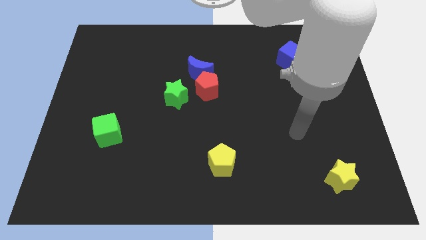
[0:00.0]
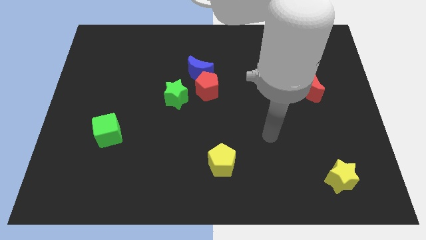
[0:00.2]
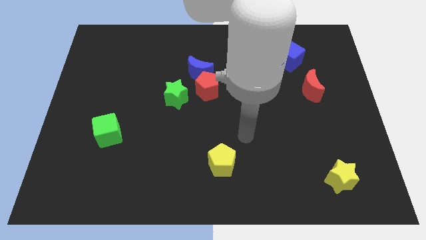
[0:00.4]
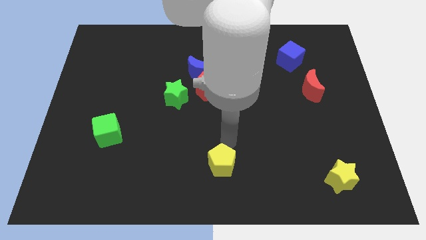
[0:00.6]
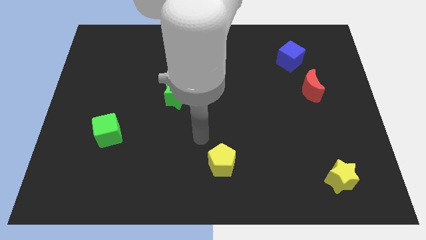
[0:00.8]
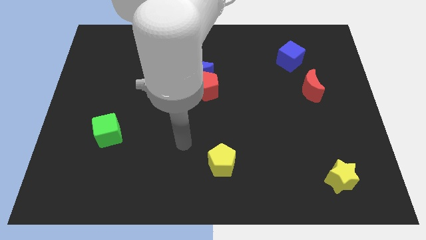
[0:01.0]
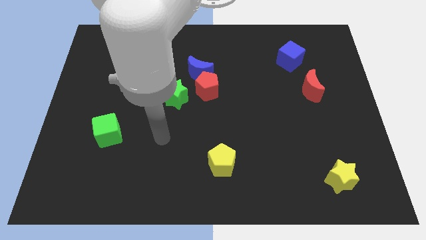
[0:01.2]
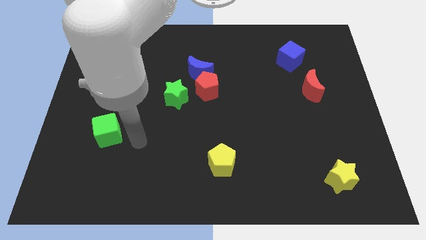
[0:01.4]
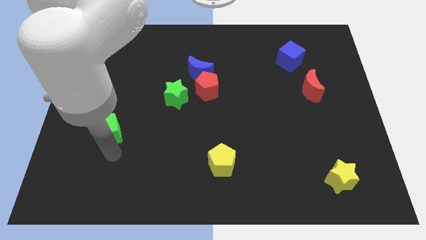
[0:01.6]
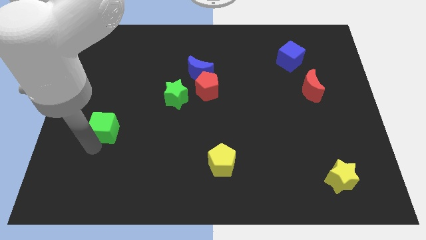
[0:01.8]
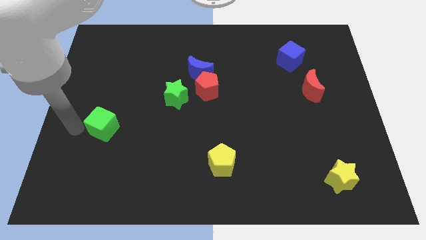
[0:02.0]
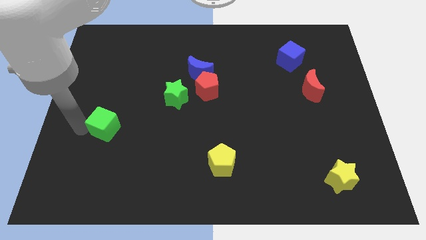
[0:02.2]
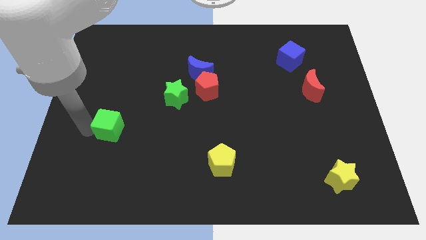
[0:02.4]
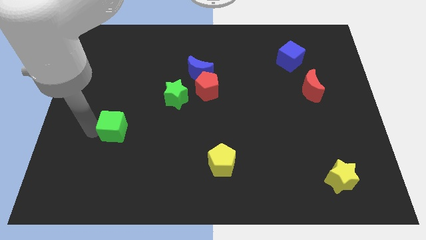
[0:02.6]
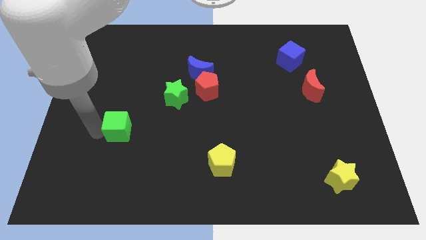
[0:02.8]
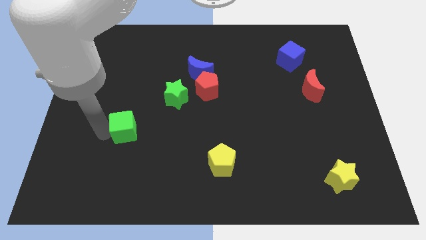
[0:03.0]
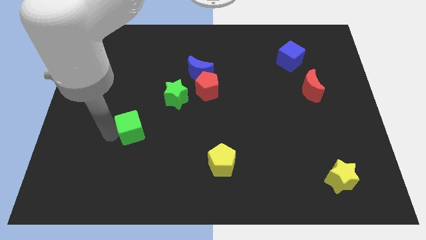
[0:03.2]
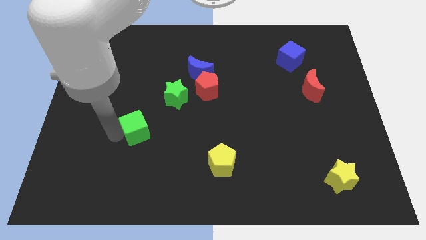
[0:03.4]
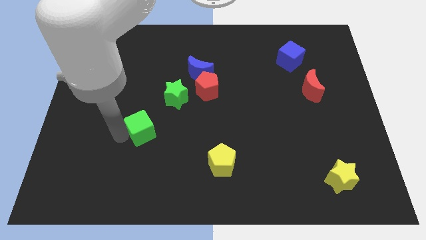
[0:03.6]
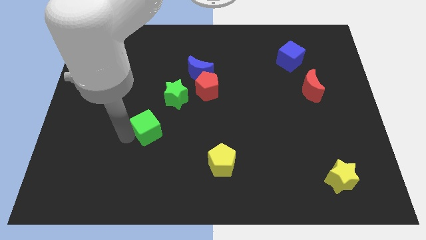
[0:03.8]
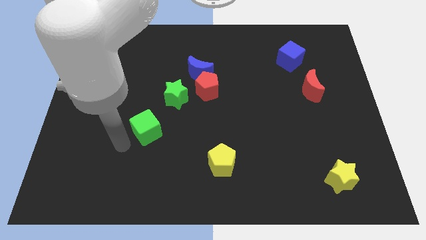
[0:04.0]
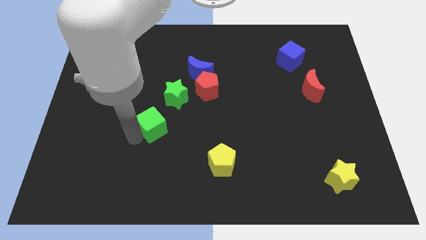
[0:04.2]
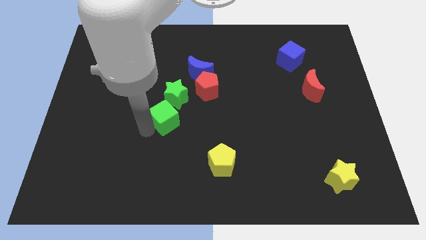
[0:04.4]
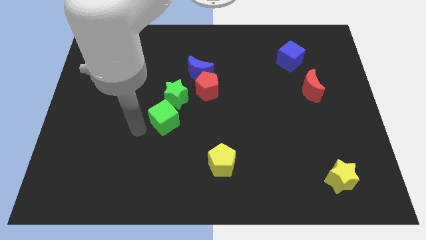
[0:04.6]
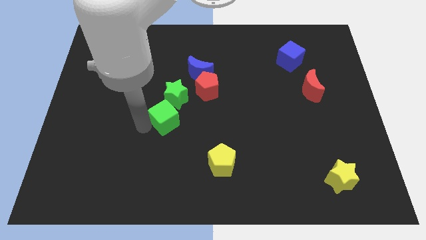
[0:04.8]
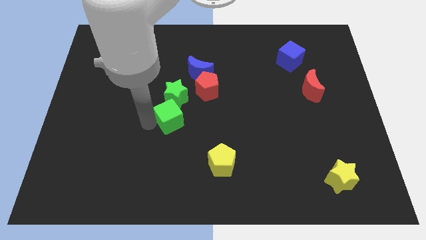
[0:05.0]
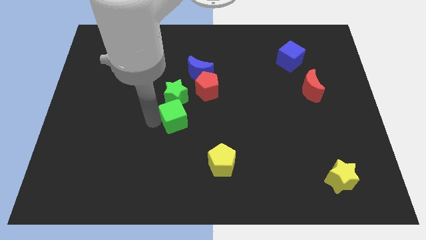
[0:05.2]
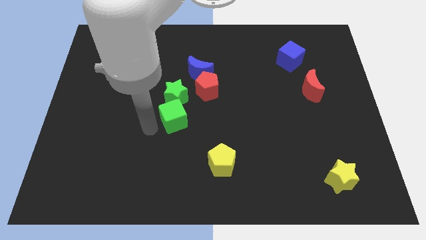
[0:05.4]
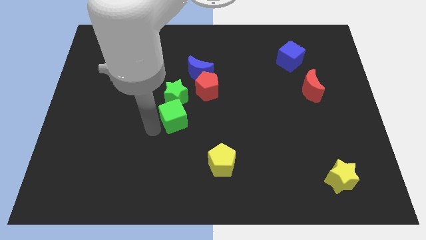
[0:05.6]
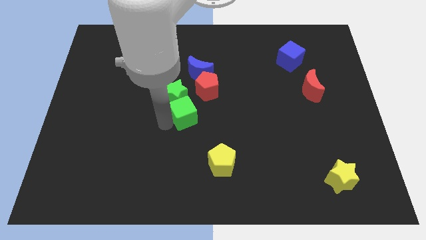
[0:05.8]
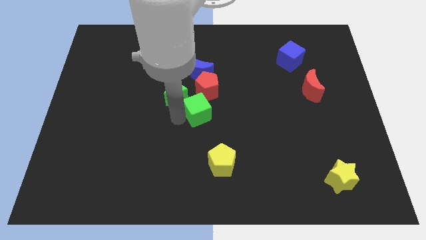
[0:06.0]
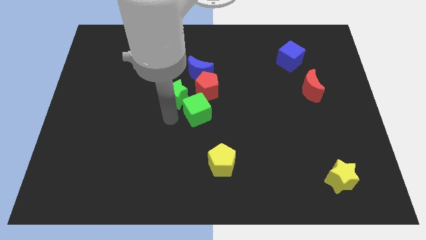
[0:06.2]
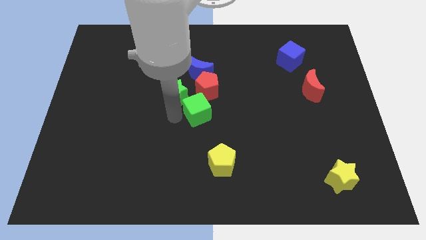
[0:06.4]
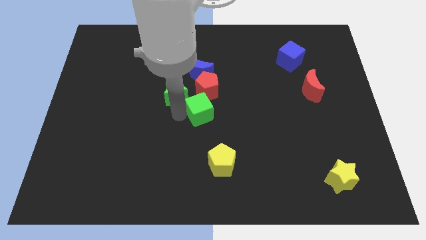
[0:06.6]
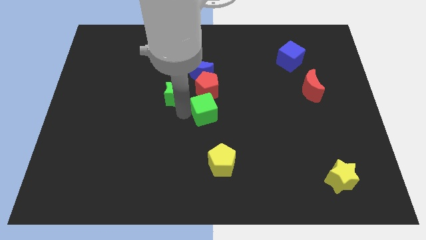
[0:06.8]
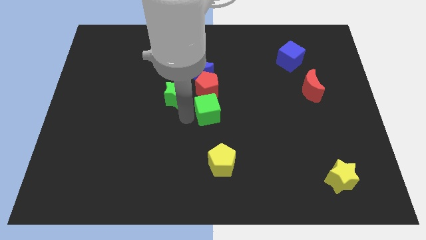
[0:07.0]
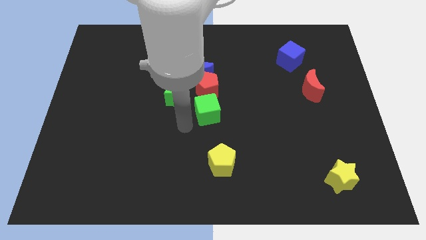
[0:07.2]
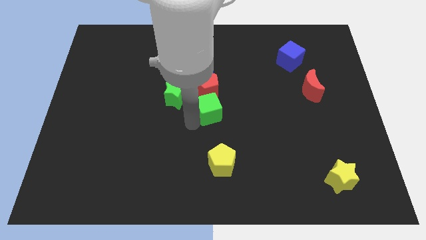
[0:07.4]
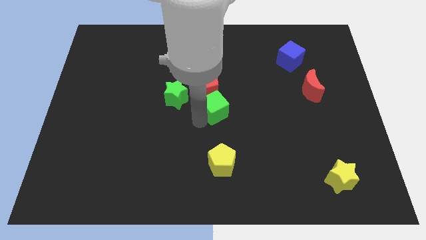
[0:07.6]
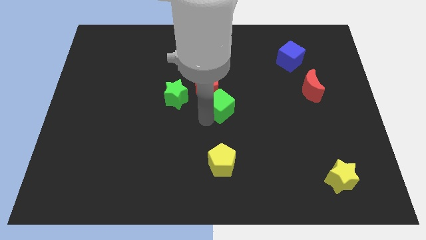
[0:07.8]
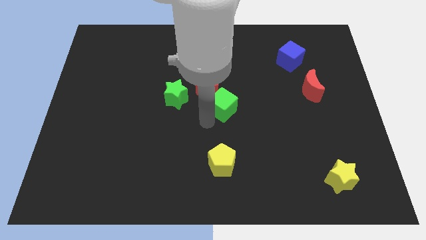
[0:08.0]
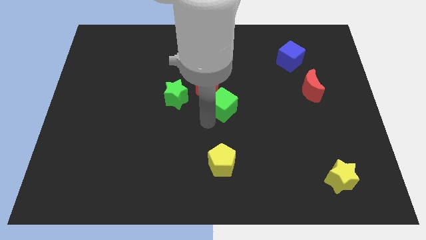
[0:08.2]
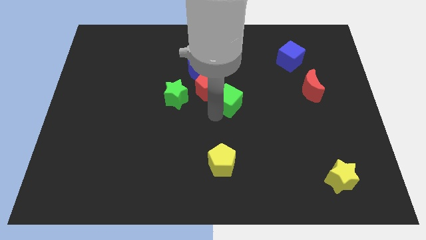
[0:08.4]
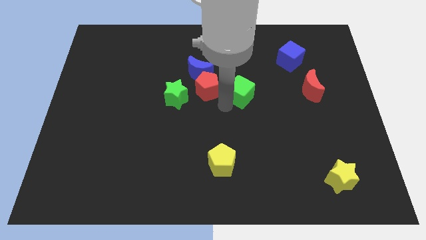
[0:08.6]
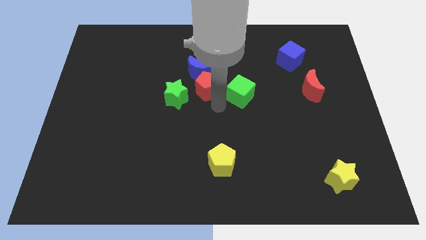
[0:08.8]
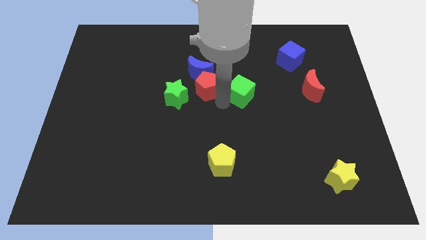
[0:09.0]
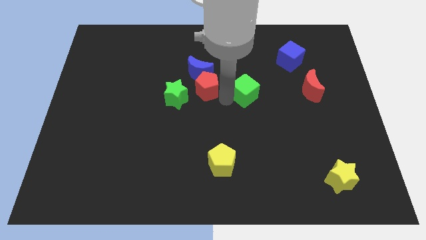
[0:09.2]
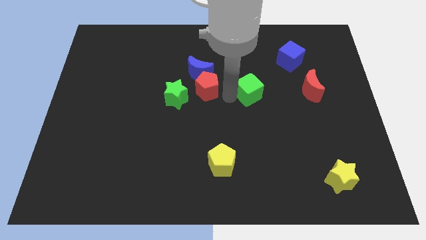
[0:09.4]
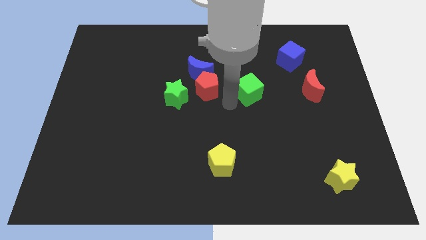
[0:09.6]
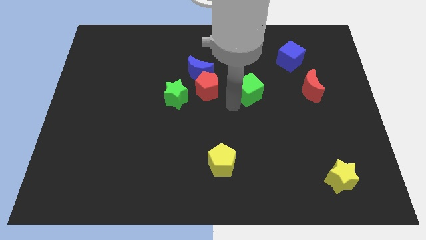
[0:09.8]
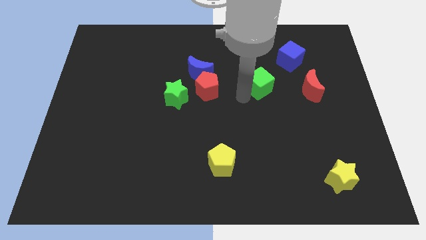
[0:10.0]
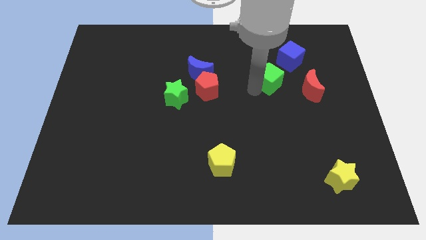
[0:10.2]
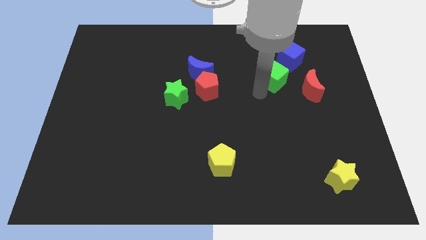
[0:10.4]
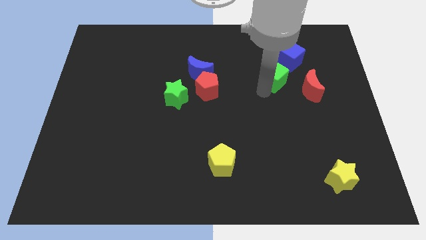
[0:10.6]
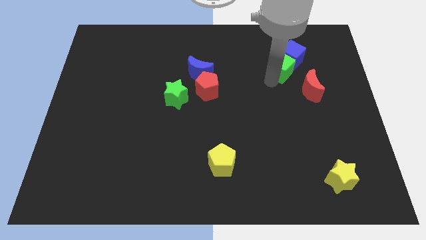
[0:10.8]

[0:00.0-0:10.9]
put the green cube towards the blue cube

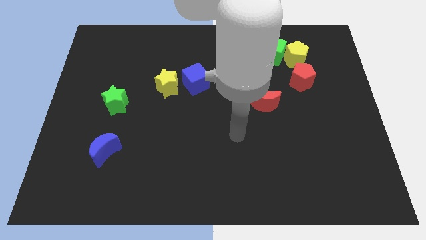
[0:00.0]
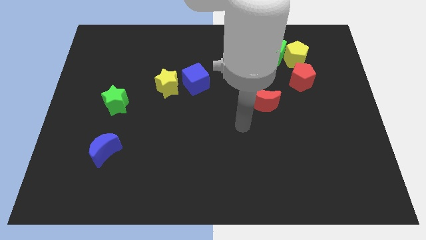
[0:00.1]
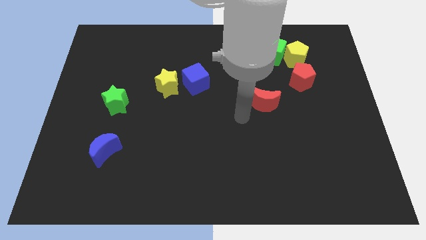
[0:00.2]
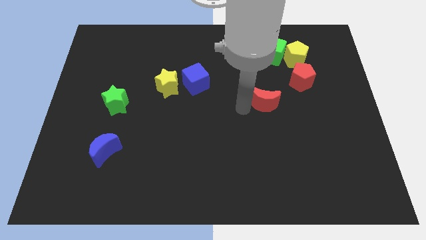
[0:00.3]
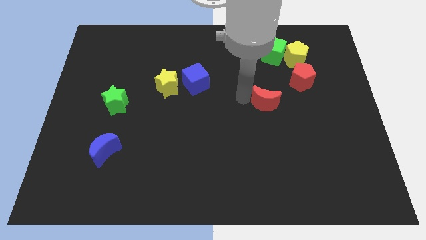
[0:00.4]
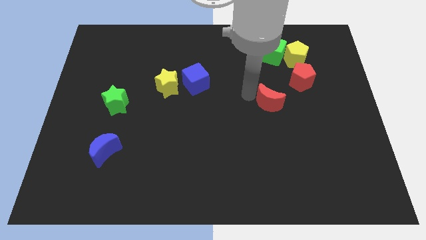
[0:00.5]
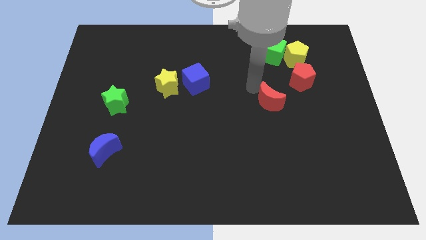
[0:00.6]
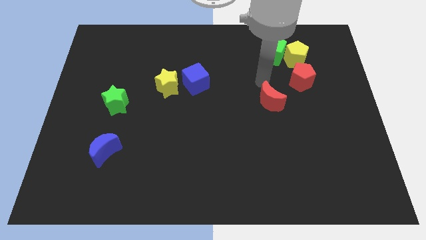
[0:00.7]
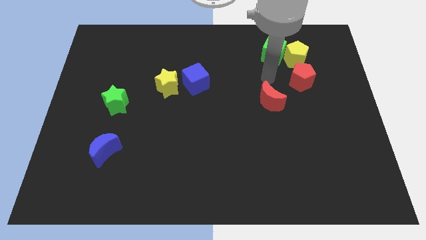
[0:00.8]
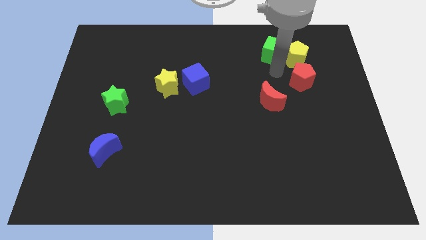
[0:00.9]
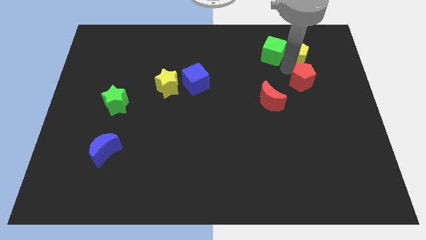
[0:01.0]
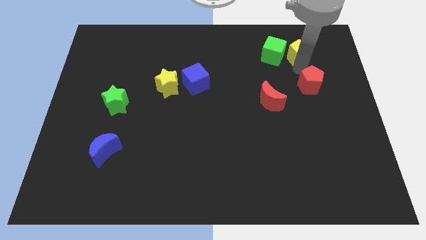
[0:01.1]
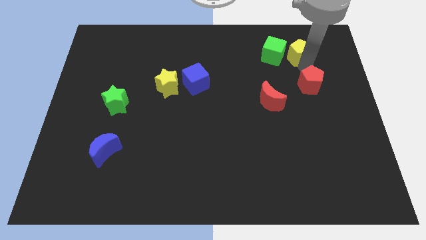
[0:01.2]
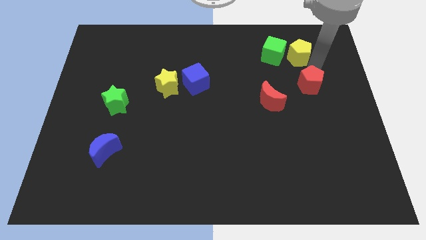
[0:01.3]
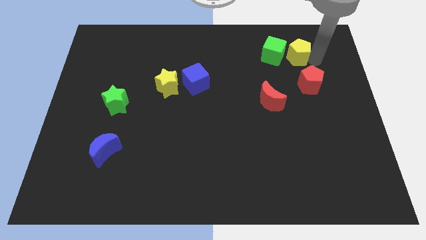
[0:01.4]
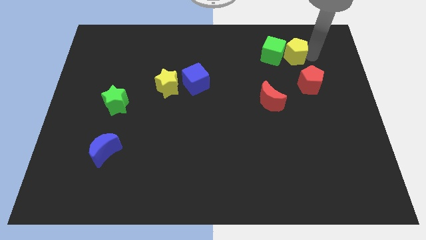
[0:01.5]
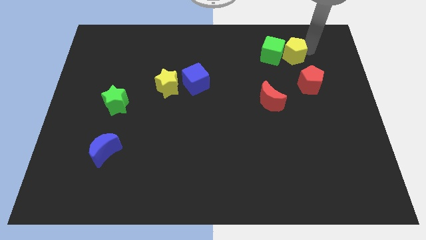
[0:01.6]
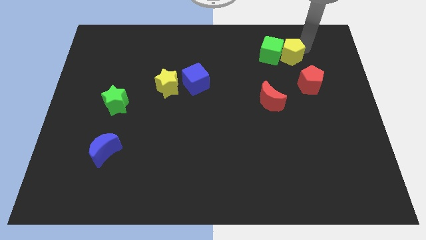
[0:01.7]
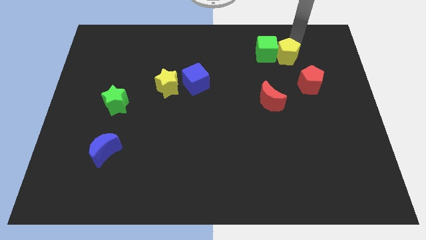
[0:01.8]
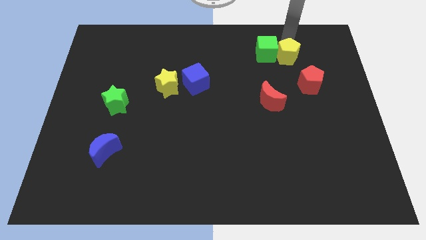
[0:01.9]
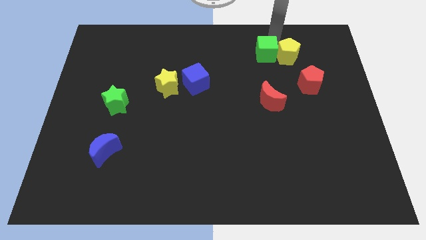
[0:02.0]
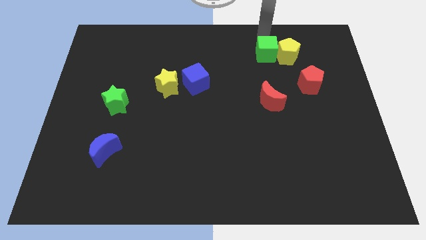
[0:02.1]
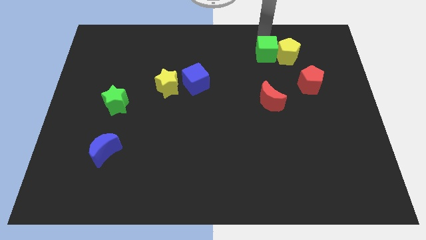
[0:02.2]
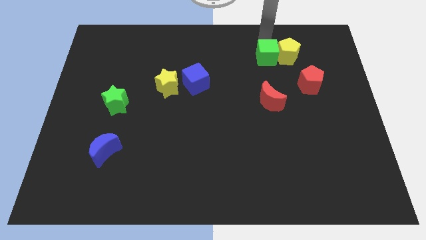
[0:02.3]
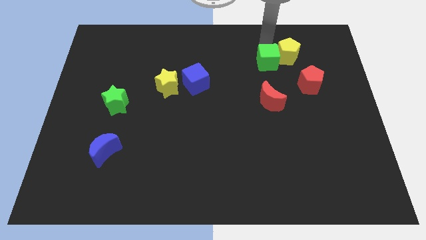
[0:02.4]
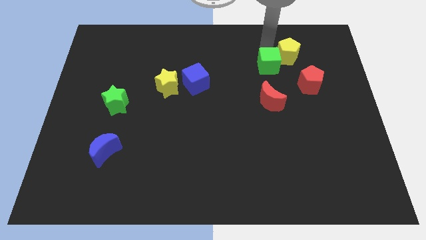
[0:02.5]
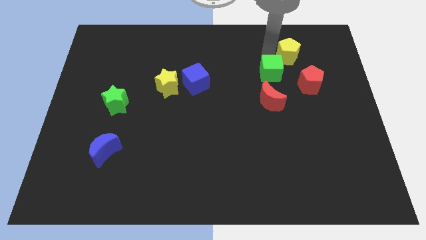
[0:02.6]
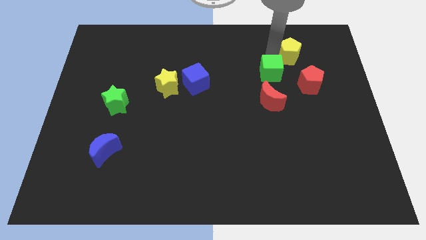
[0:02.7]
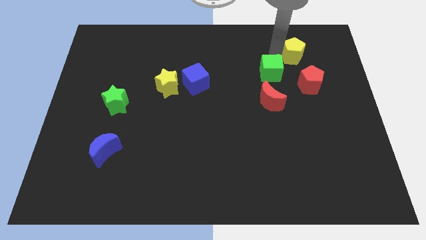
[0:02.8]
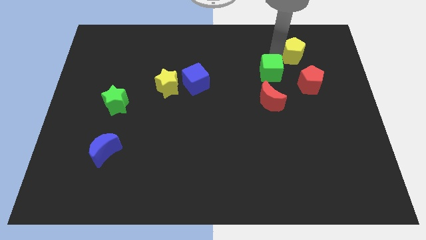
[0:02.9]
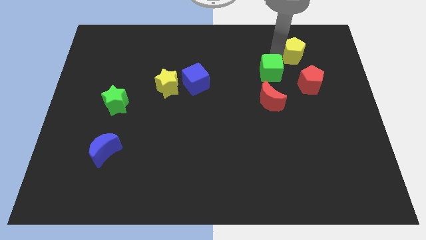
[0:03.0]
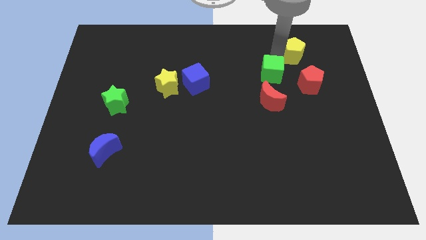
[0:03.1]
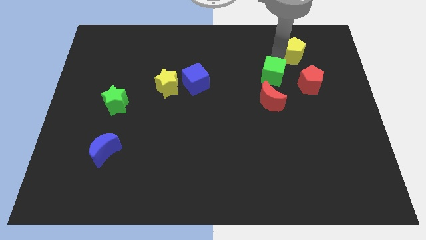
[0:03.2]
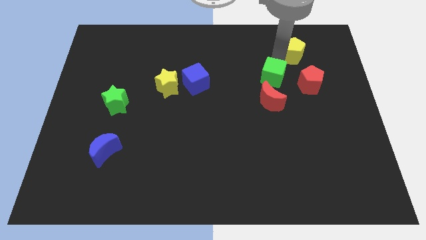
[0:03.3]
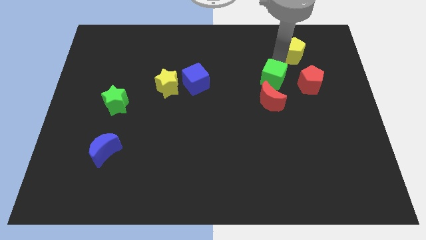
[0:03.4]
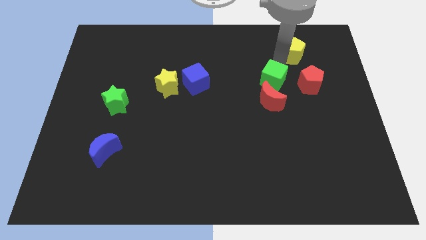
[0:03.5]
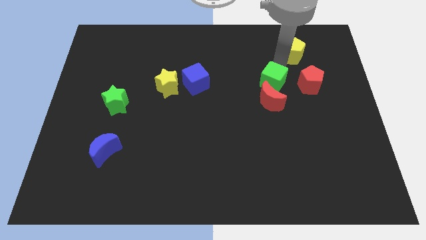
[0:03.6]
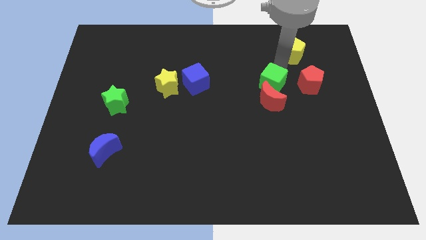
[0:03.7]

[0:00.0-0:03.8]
push the green cube close to the red moon
